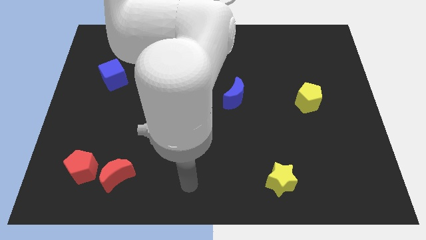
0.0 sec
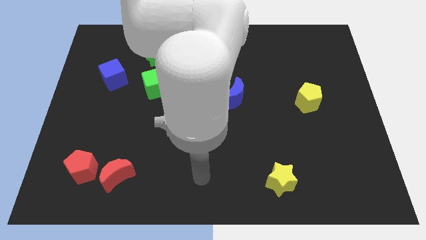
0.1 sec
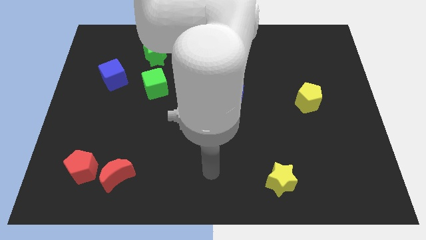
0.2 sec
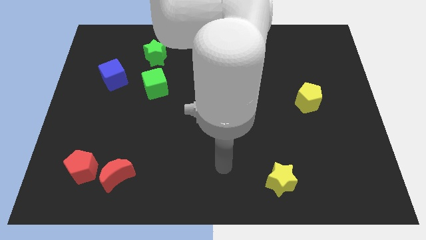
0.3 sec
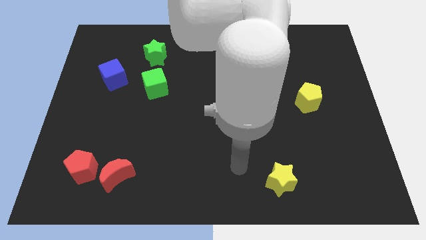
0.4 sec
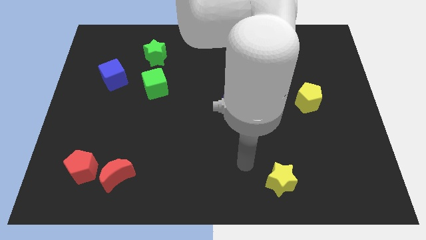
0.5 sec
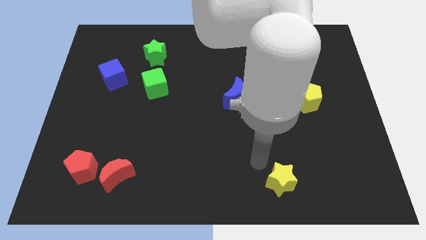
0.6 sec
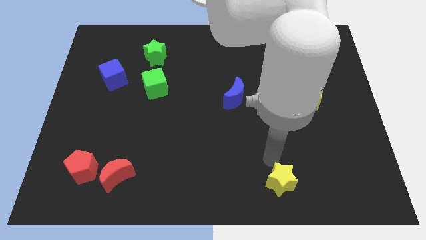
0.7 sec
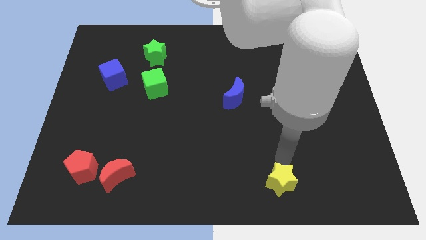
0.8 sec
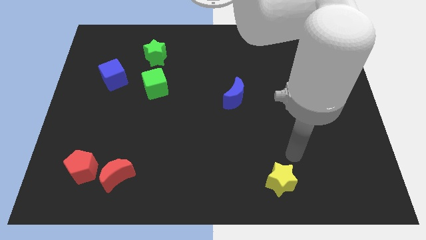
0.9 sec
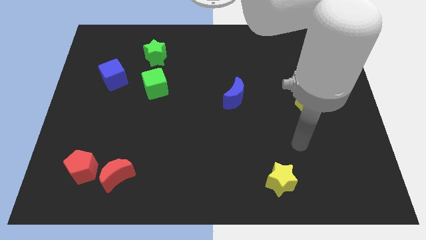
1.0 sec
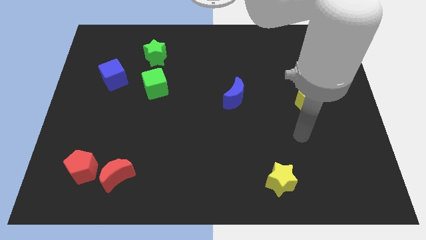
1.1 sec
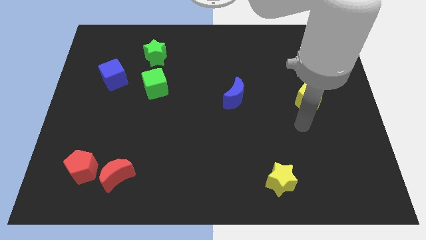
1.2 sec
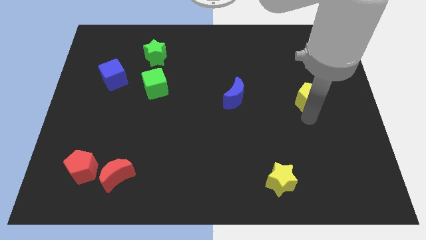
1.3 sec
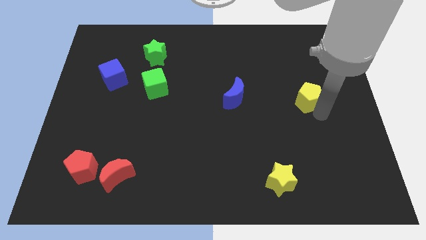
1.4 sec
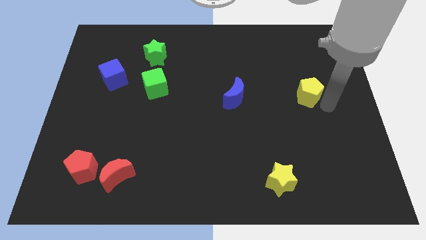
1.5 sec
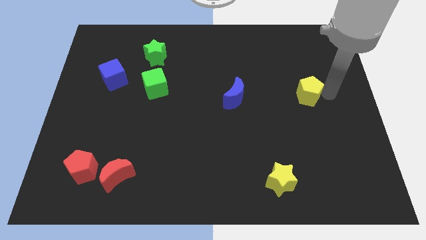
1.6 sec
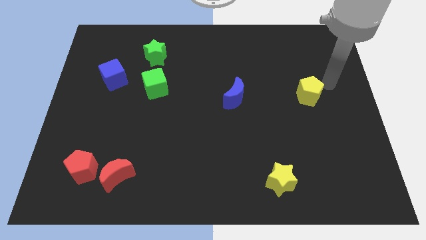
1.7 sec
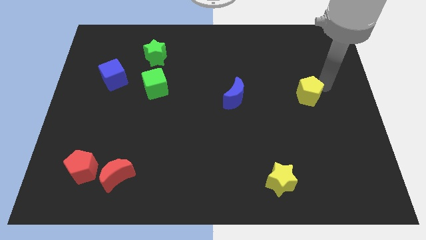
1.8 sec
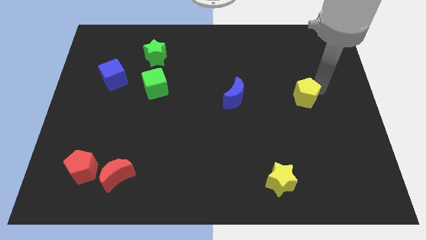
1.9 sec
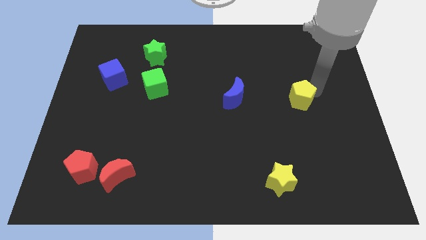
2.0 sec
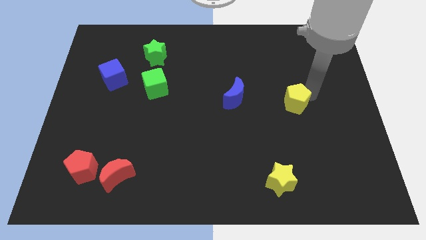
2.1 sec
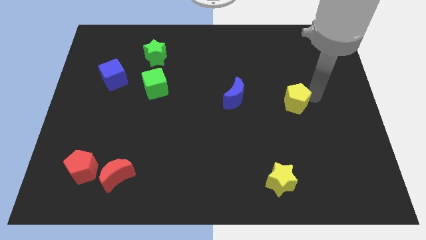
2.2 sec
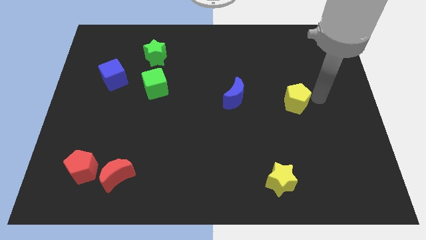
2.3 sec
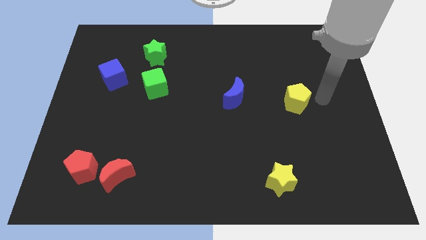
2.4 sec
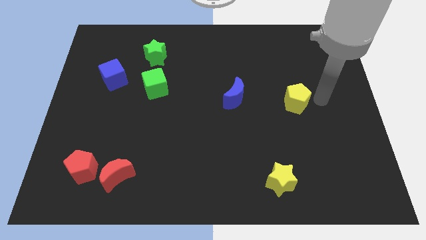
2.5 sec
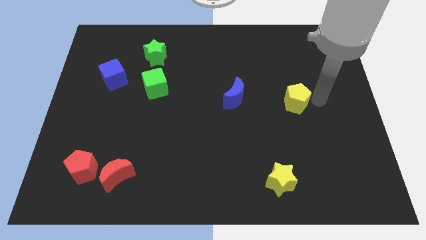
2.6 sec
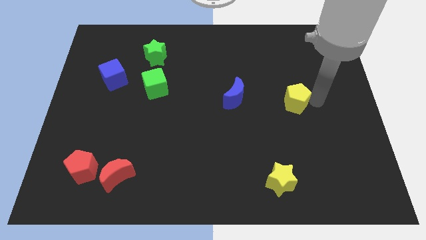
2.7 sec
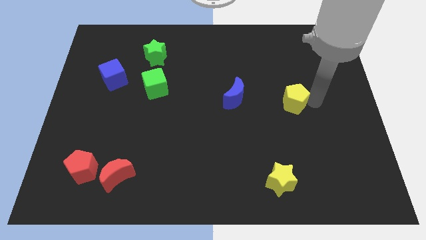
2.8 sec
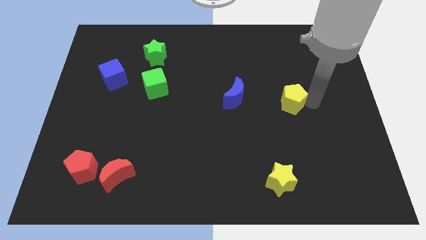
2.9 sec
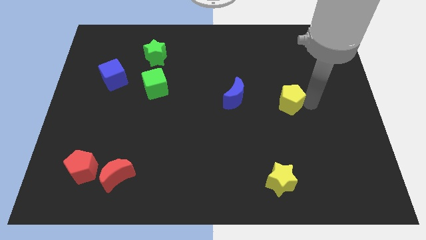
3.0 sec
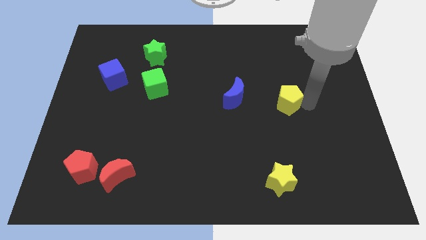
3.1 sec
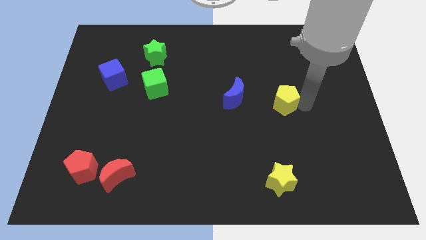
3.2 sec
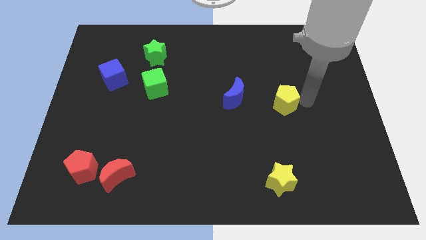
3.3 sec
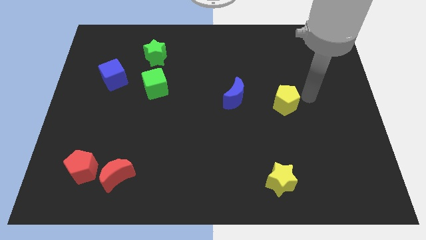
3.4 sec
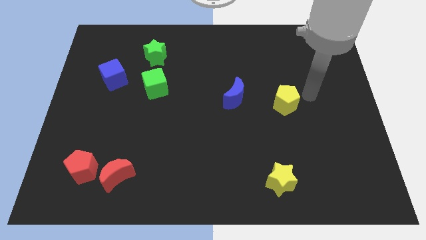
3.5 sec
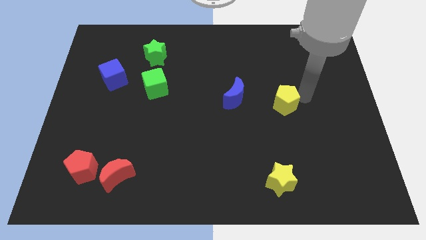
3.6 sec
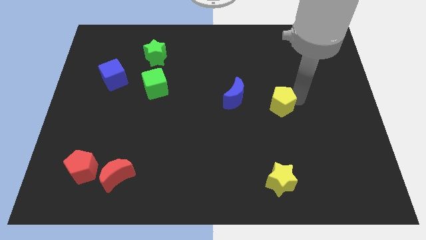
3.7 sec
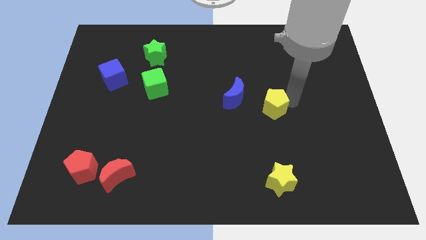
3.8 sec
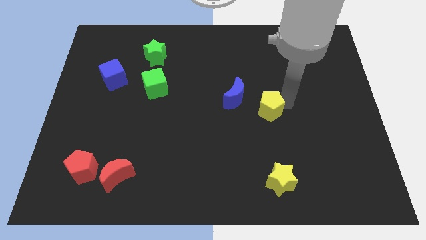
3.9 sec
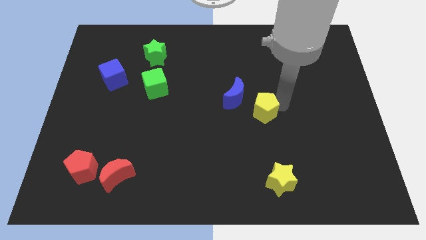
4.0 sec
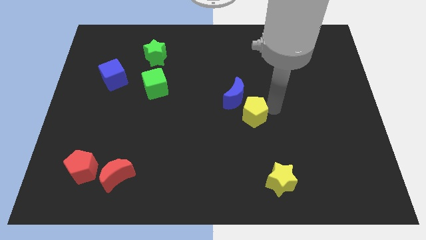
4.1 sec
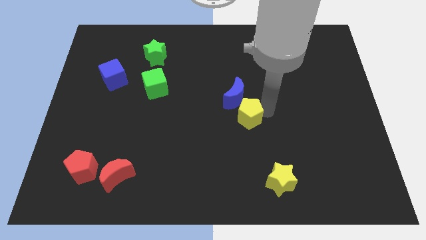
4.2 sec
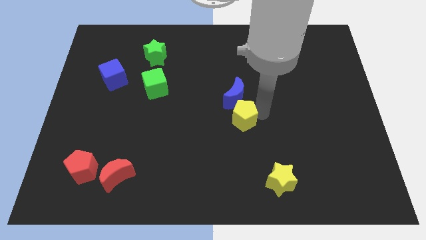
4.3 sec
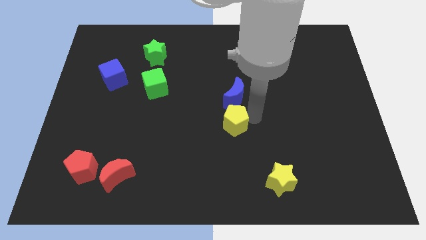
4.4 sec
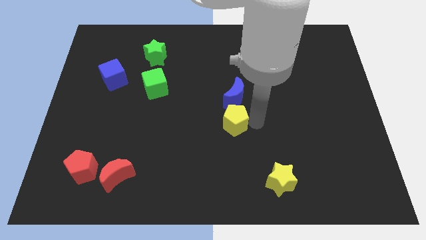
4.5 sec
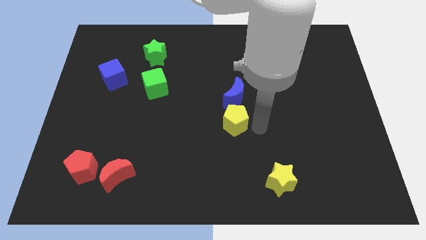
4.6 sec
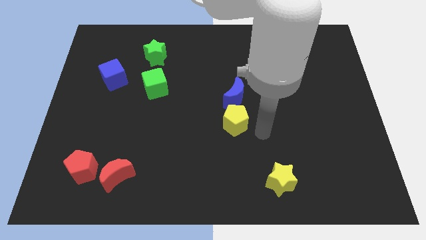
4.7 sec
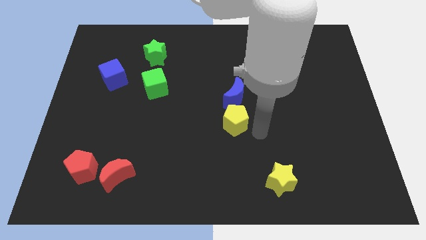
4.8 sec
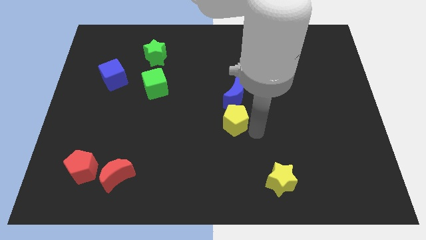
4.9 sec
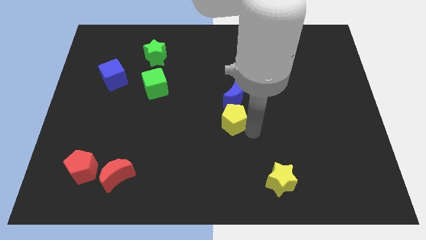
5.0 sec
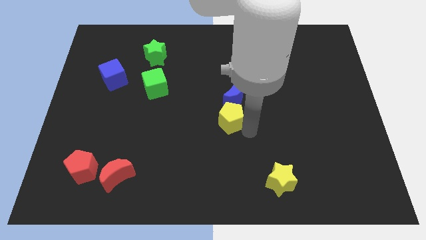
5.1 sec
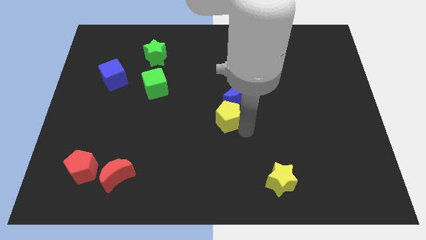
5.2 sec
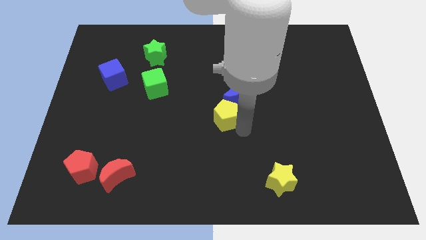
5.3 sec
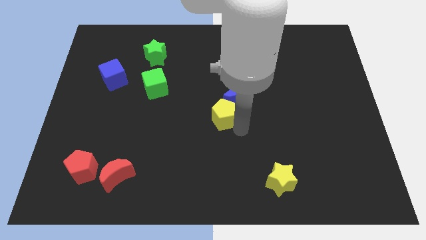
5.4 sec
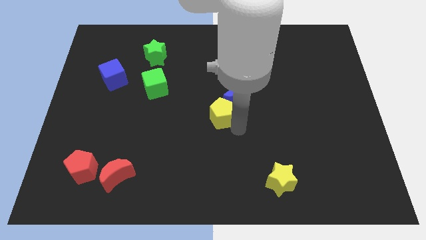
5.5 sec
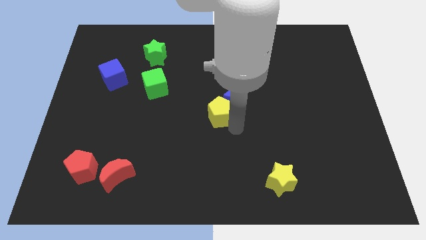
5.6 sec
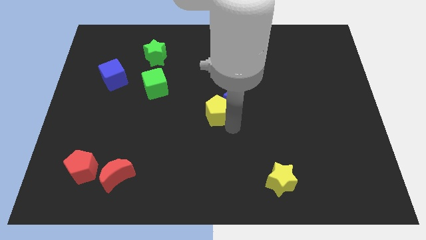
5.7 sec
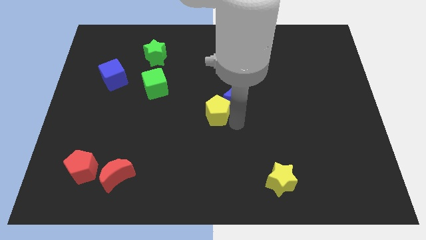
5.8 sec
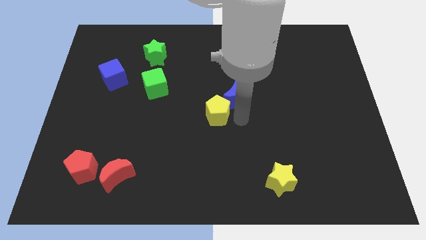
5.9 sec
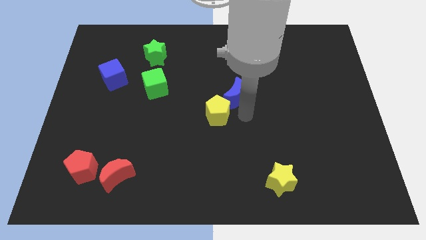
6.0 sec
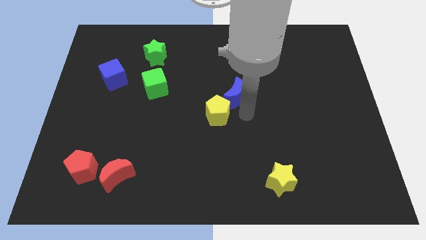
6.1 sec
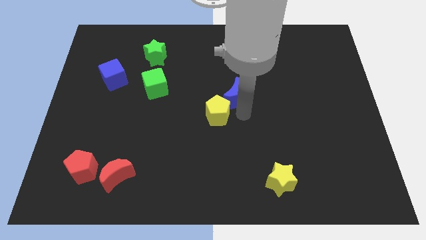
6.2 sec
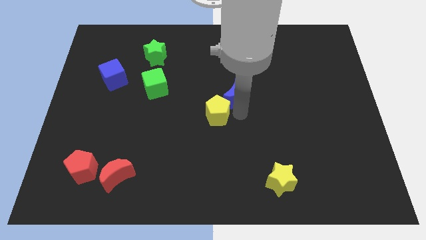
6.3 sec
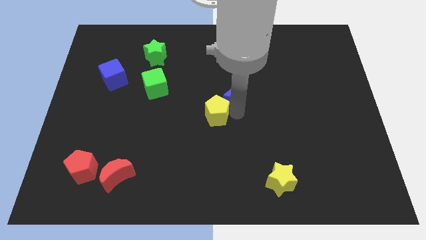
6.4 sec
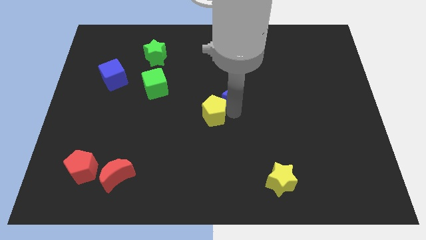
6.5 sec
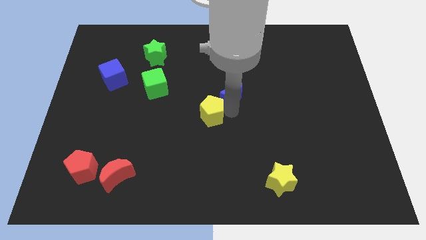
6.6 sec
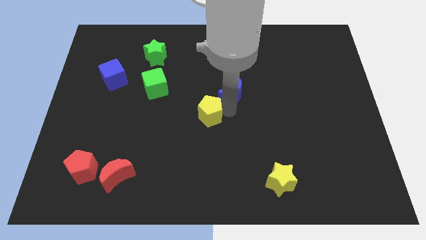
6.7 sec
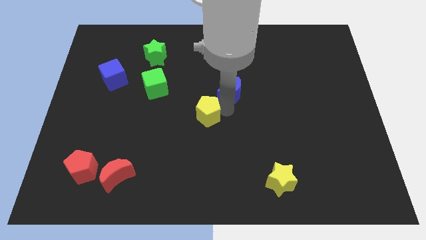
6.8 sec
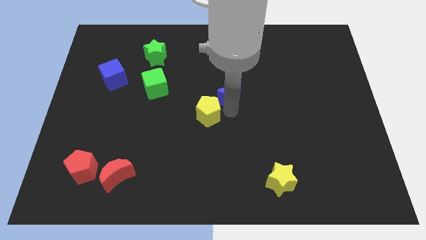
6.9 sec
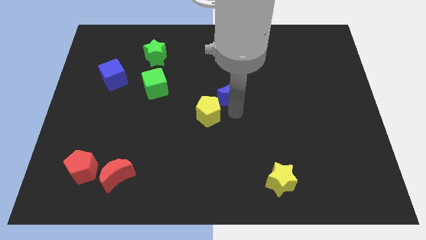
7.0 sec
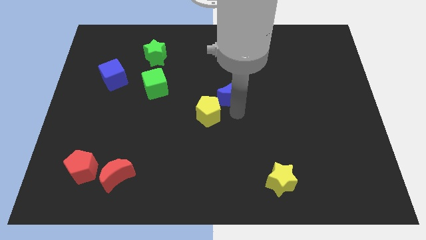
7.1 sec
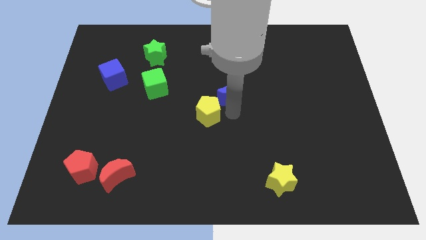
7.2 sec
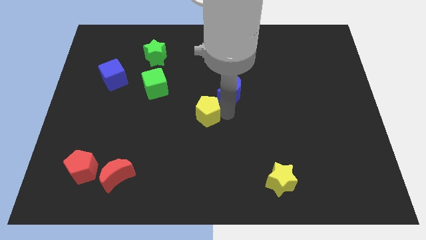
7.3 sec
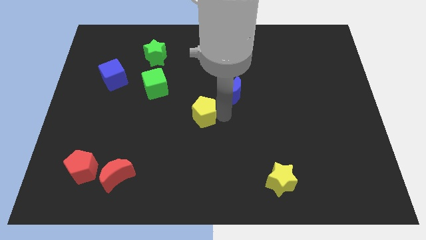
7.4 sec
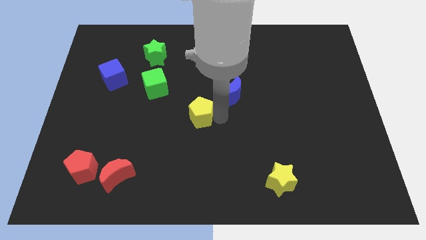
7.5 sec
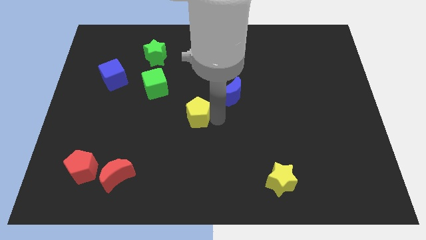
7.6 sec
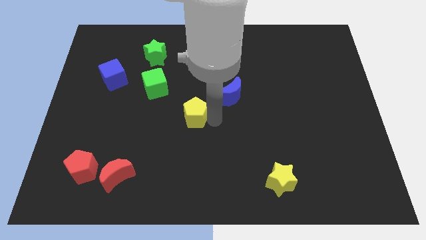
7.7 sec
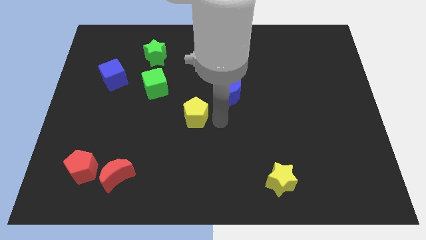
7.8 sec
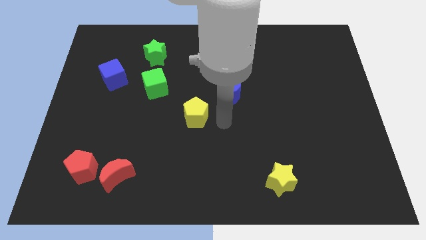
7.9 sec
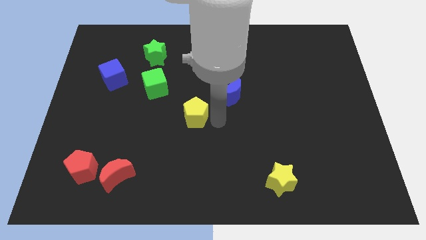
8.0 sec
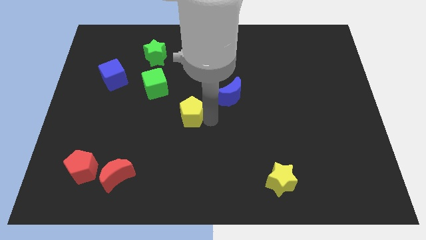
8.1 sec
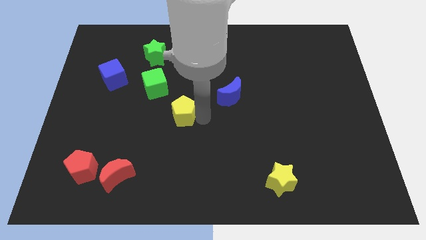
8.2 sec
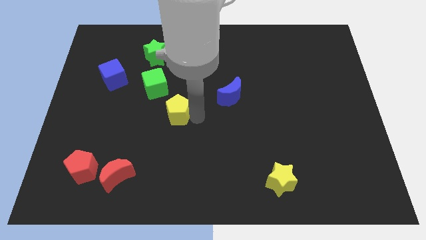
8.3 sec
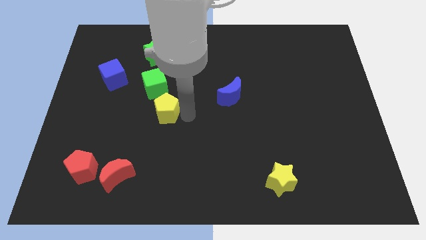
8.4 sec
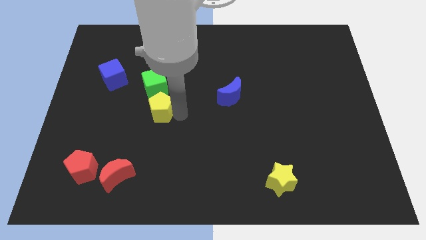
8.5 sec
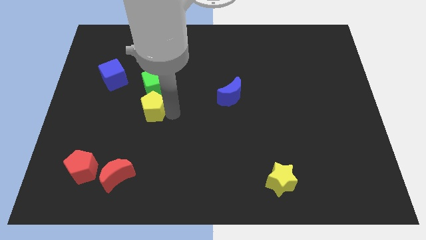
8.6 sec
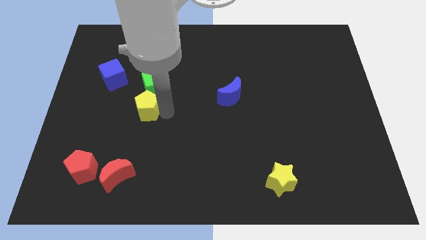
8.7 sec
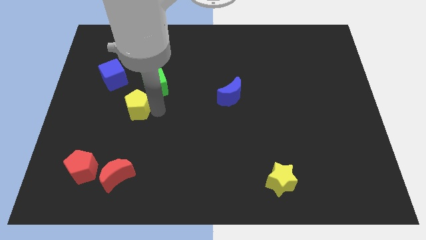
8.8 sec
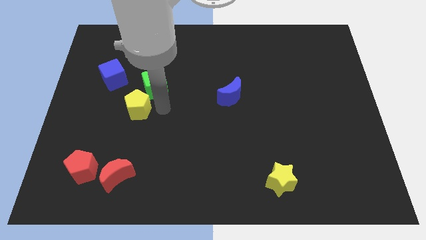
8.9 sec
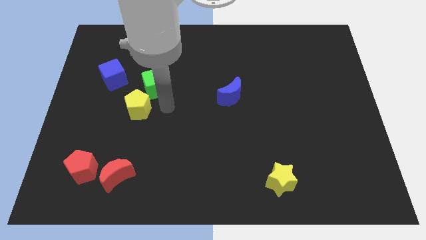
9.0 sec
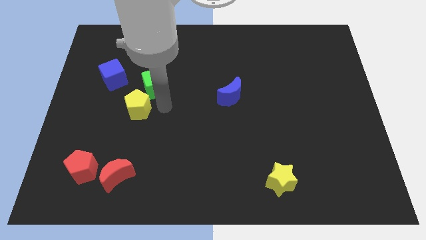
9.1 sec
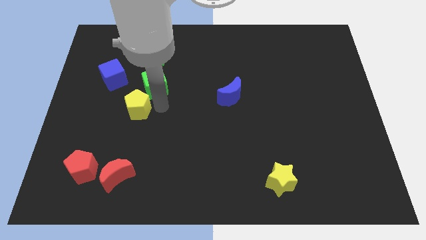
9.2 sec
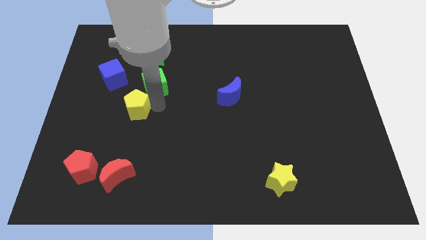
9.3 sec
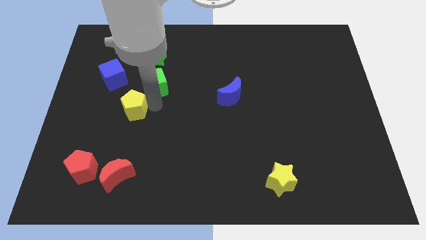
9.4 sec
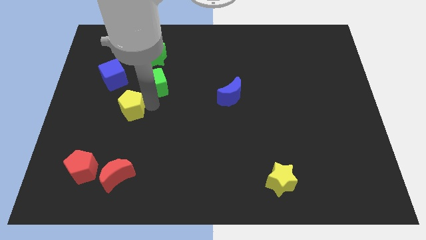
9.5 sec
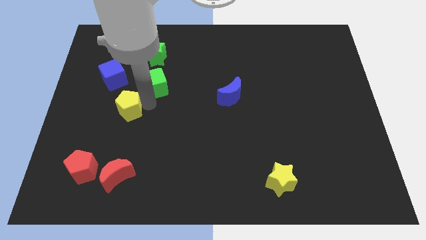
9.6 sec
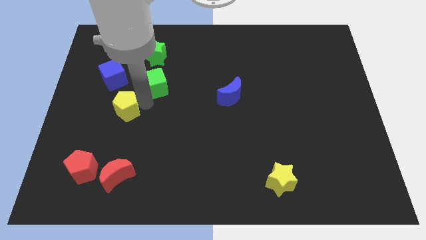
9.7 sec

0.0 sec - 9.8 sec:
put the yellow pentagon to the bottom side of the blue cube
